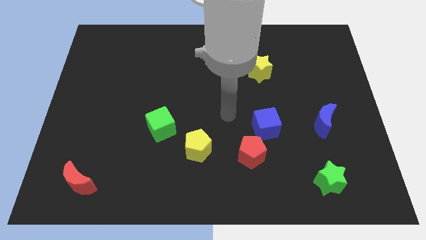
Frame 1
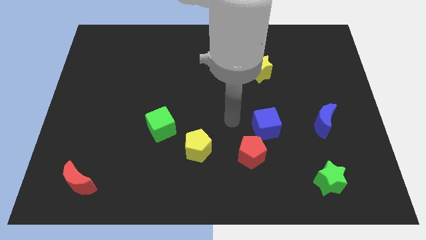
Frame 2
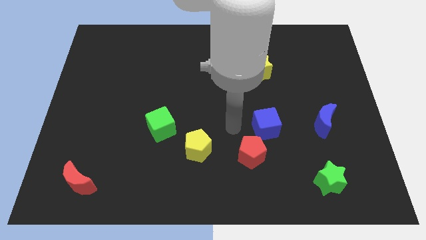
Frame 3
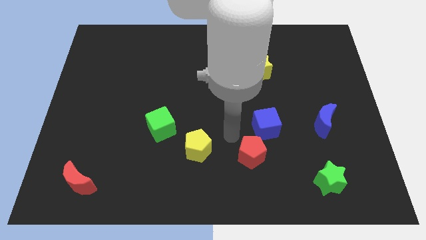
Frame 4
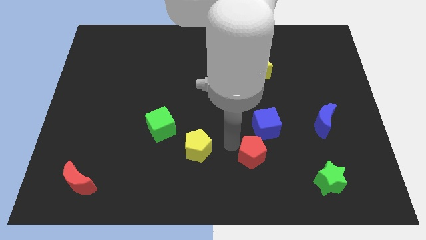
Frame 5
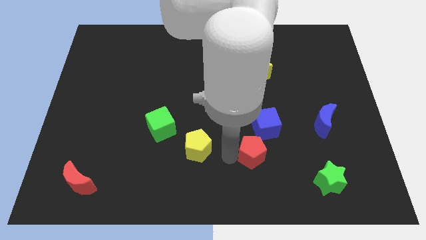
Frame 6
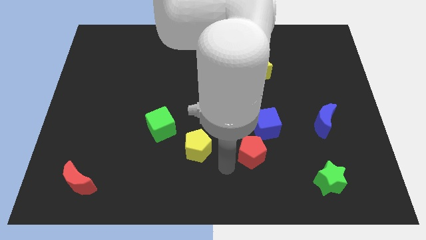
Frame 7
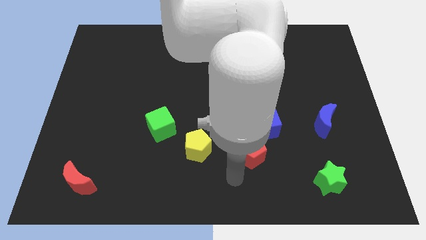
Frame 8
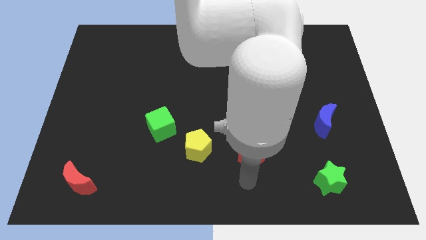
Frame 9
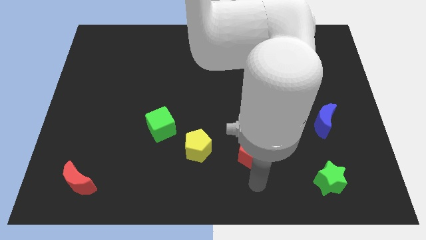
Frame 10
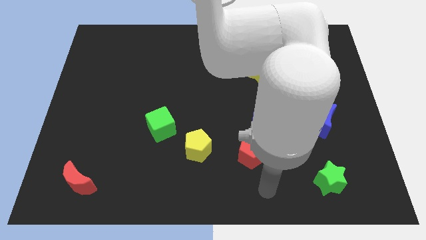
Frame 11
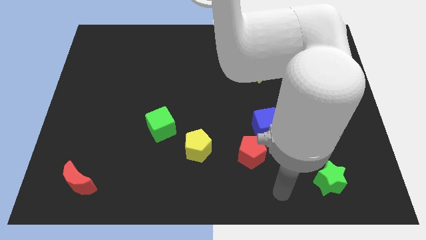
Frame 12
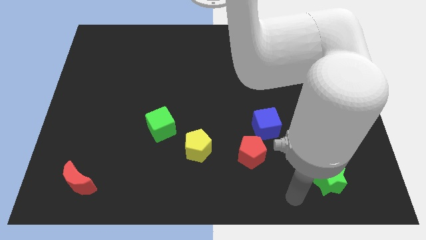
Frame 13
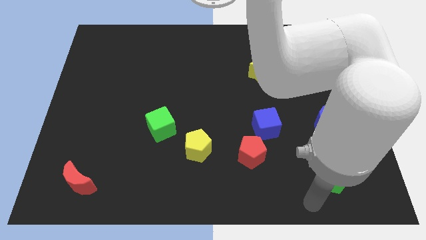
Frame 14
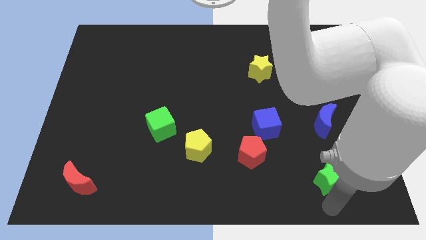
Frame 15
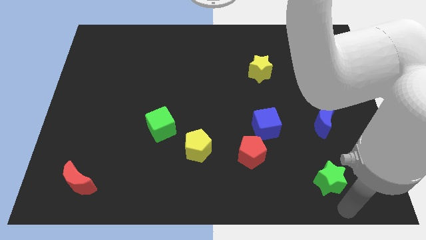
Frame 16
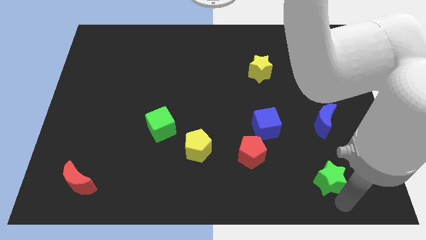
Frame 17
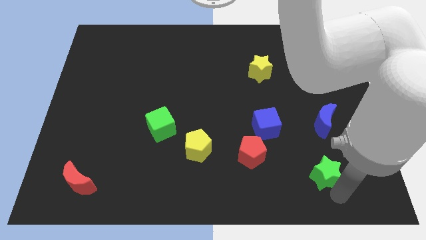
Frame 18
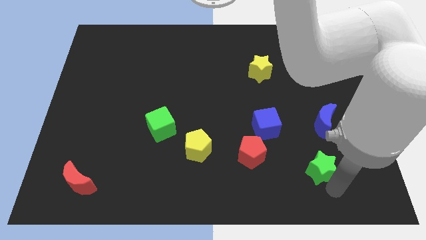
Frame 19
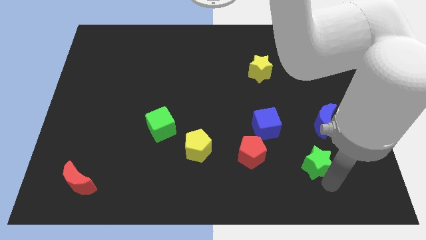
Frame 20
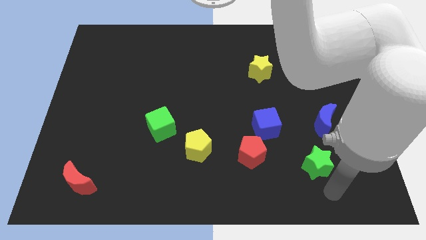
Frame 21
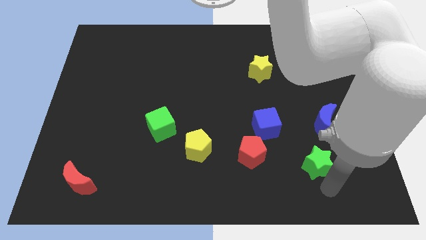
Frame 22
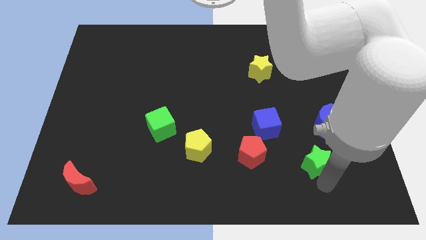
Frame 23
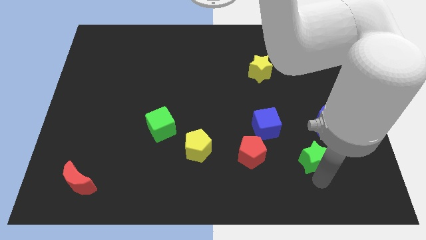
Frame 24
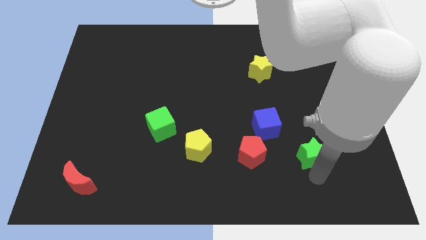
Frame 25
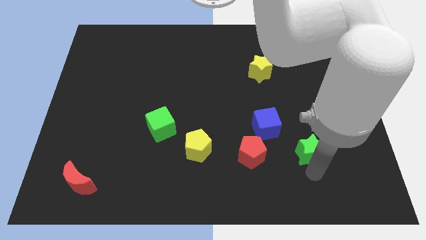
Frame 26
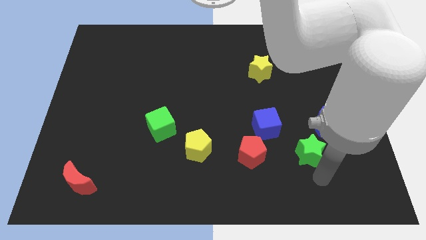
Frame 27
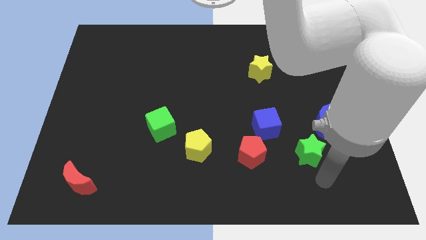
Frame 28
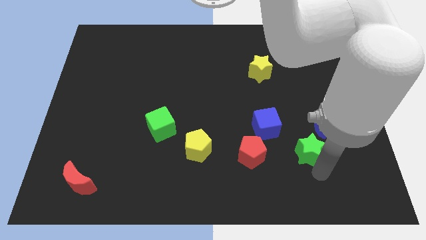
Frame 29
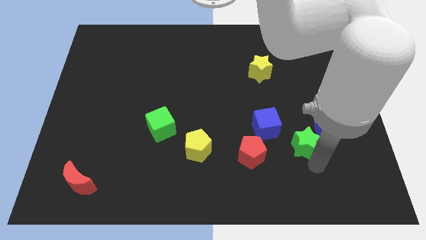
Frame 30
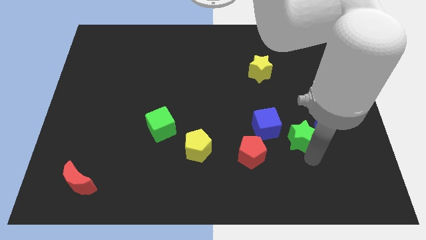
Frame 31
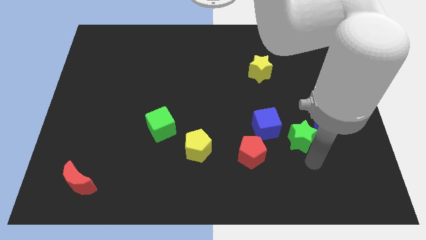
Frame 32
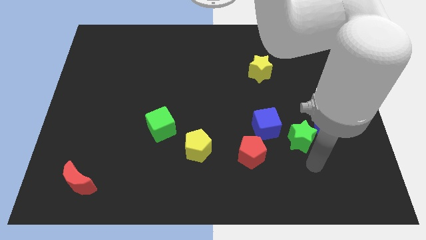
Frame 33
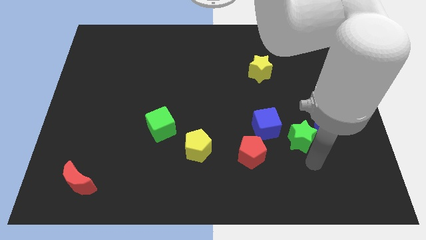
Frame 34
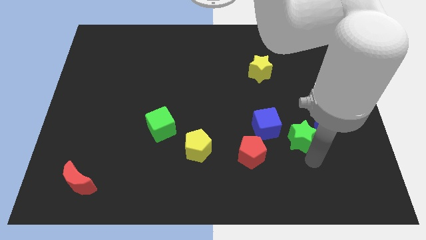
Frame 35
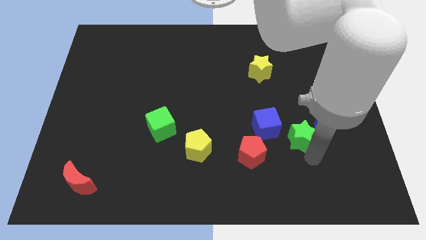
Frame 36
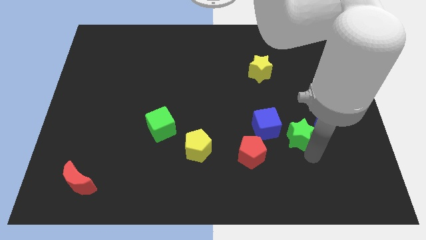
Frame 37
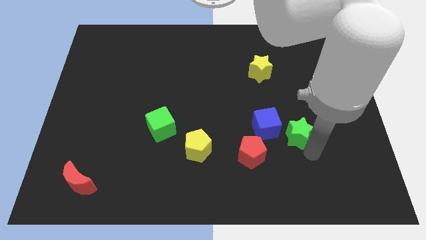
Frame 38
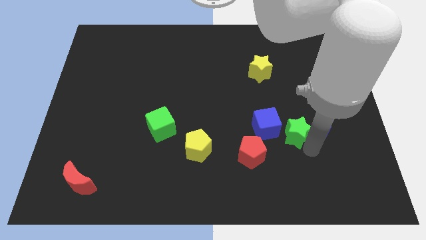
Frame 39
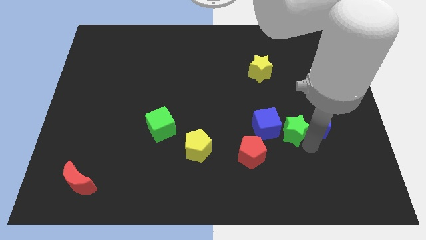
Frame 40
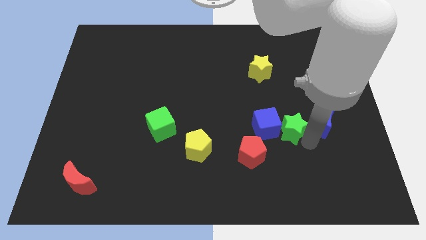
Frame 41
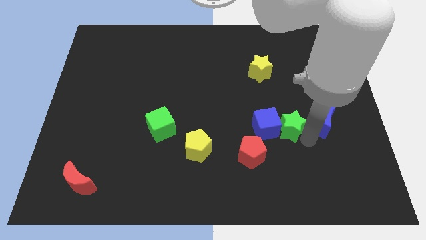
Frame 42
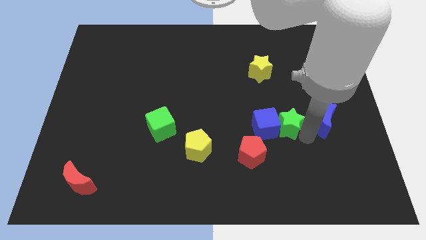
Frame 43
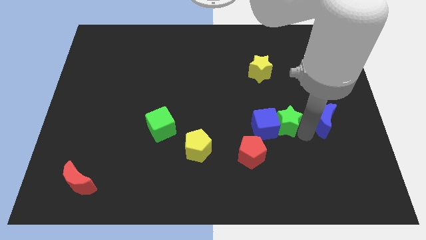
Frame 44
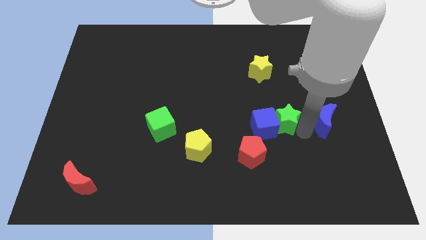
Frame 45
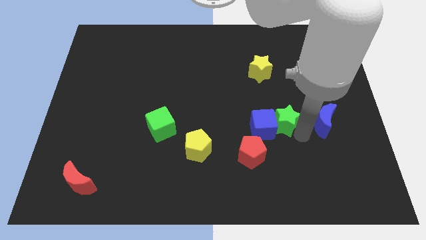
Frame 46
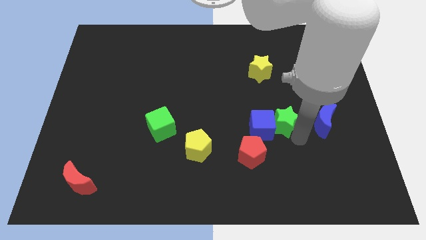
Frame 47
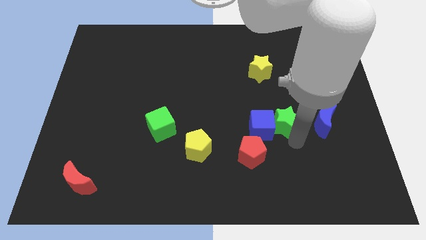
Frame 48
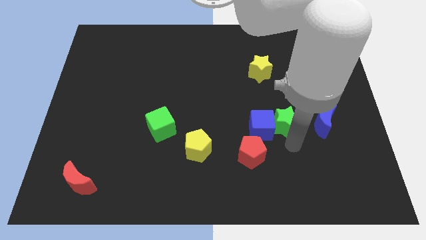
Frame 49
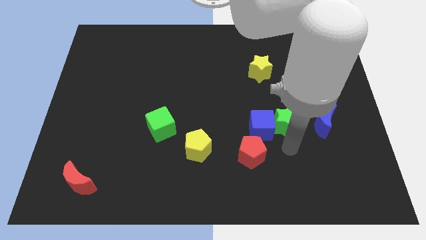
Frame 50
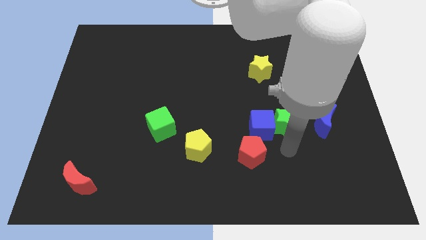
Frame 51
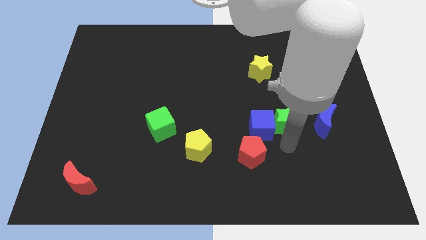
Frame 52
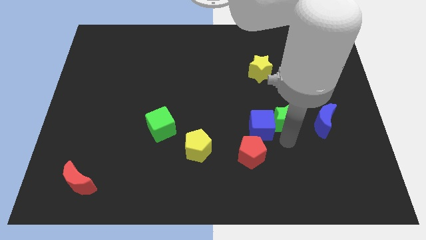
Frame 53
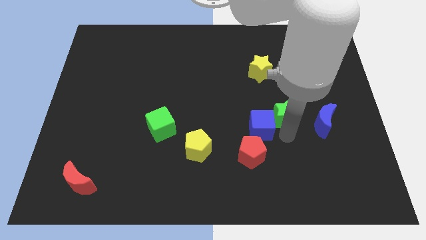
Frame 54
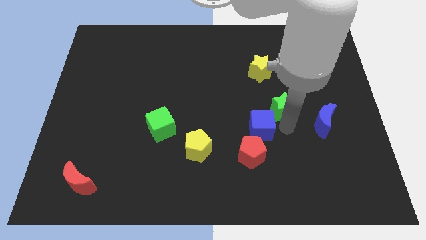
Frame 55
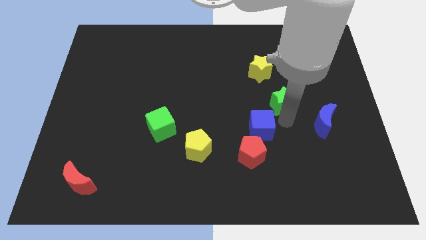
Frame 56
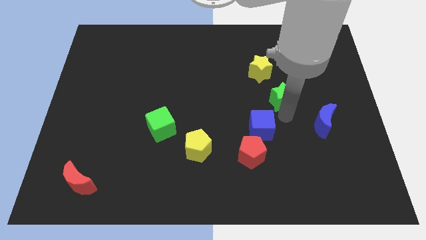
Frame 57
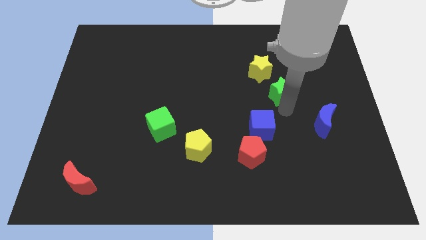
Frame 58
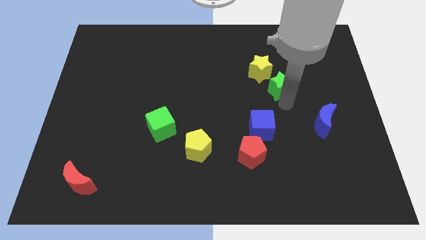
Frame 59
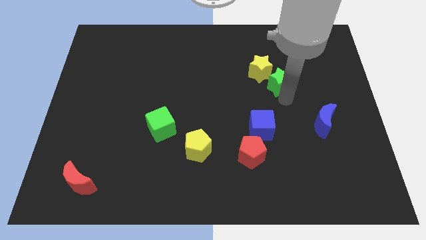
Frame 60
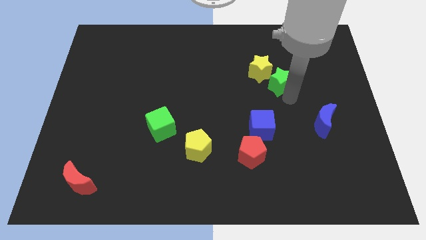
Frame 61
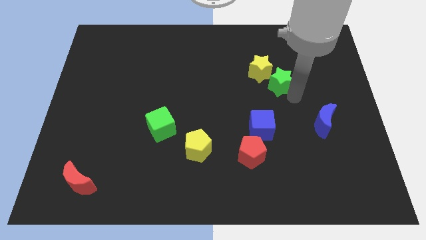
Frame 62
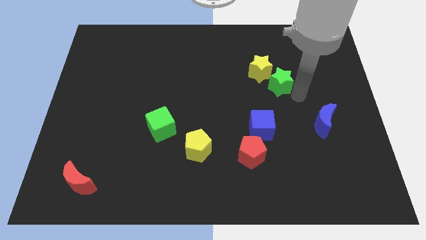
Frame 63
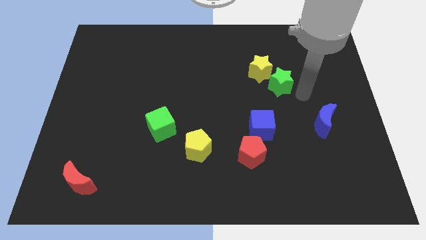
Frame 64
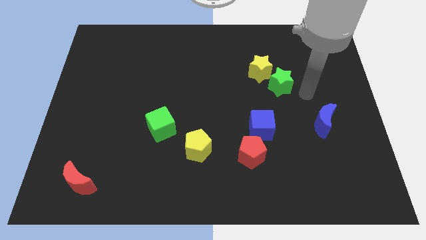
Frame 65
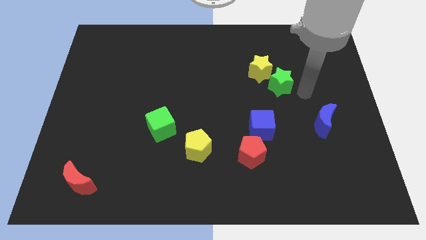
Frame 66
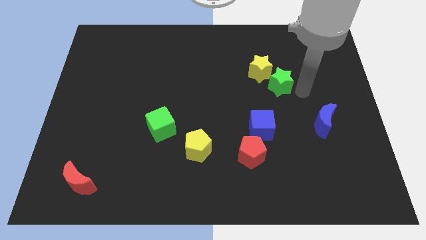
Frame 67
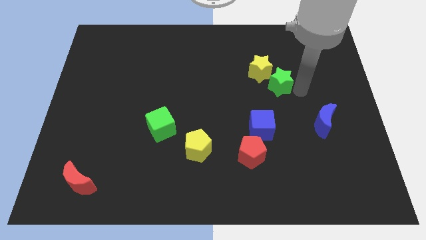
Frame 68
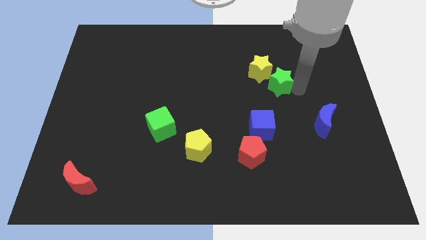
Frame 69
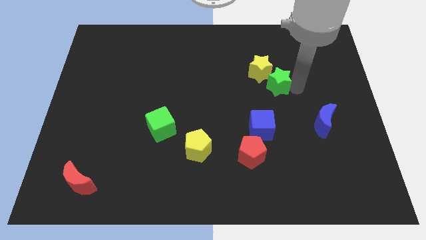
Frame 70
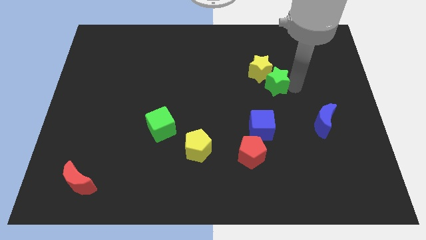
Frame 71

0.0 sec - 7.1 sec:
put the green star next to the yellow star
